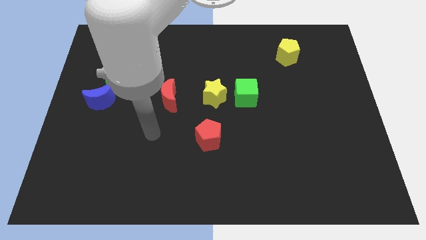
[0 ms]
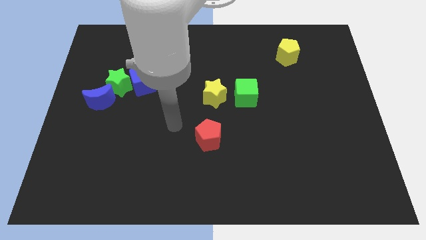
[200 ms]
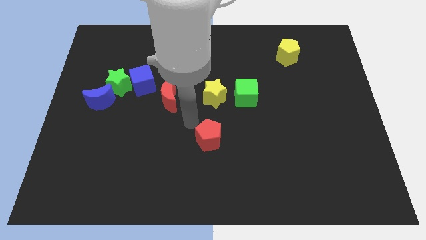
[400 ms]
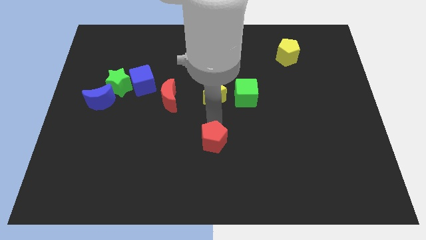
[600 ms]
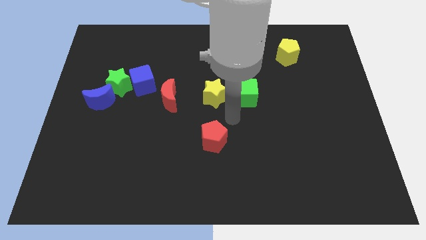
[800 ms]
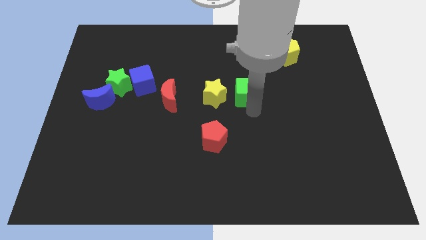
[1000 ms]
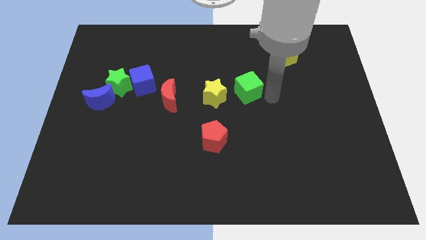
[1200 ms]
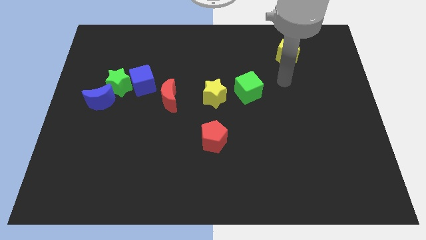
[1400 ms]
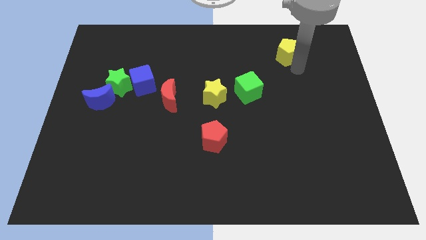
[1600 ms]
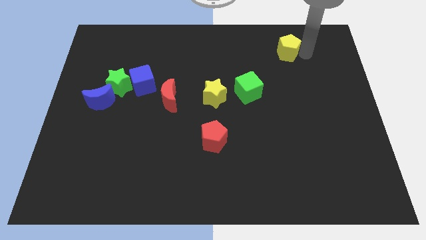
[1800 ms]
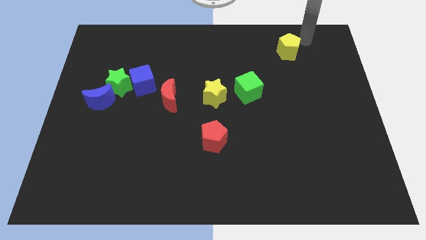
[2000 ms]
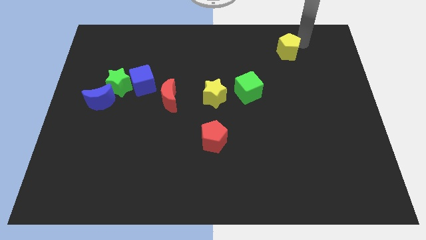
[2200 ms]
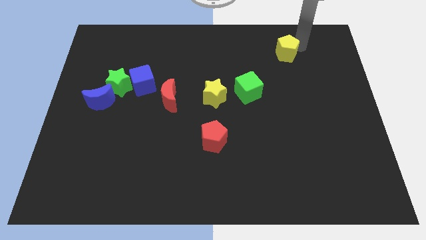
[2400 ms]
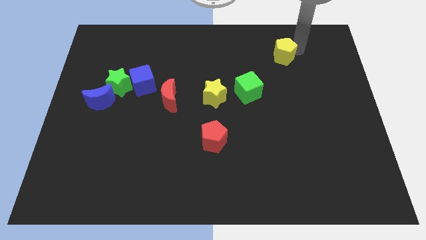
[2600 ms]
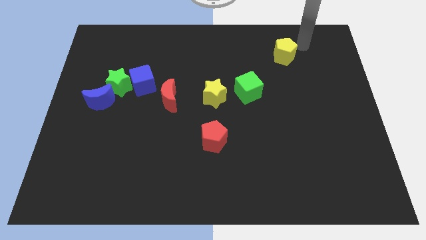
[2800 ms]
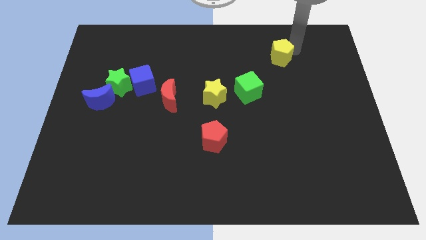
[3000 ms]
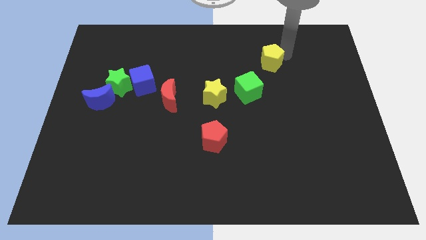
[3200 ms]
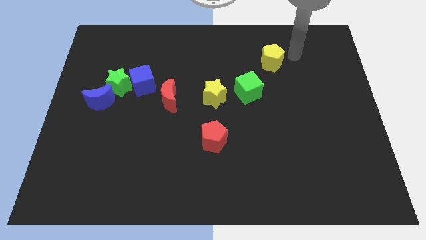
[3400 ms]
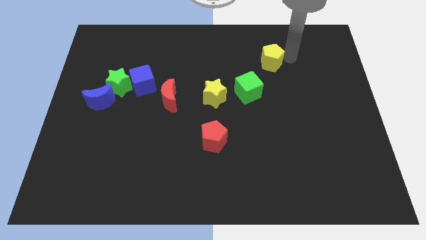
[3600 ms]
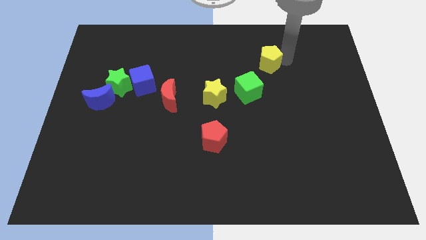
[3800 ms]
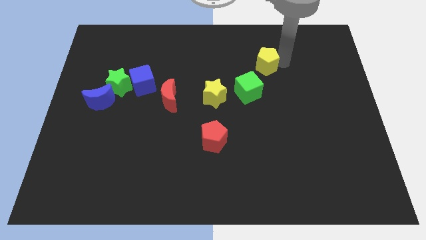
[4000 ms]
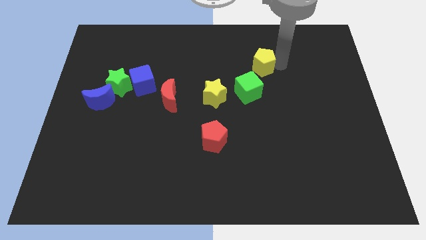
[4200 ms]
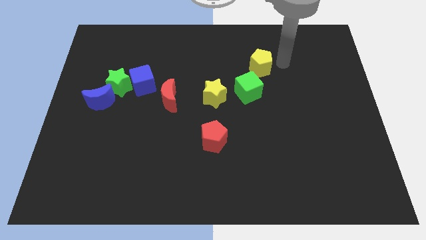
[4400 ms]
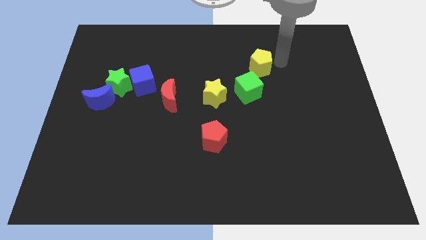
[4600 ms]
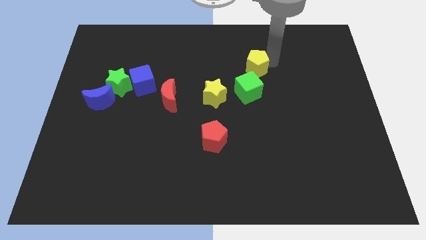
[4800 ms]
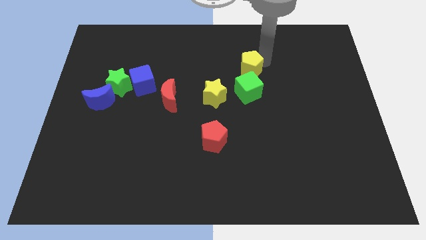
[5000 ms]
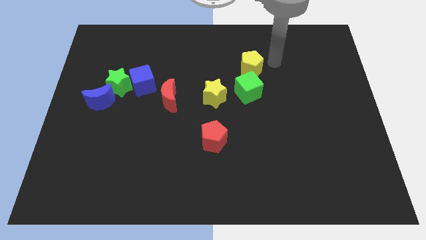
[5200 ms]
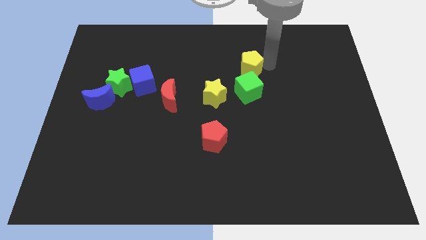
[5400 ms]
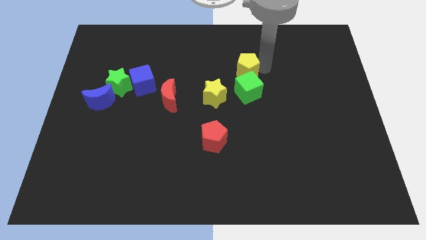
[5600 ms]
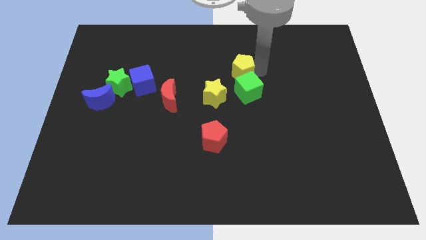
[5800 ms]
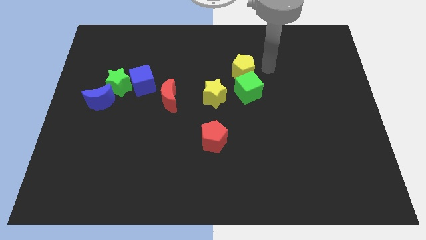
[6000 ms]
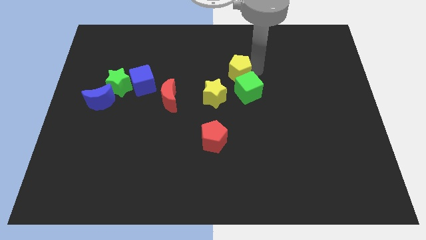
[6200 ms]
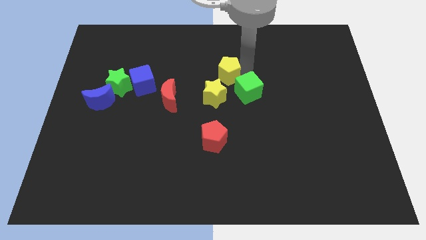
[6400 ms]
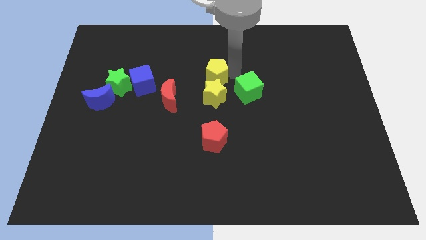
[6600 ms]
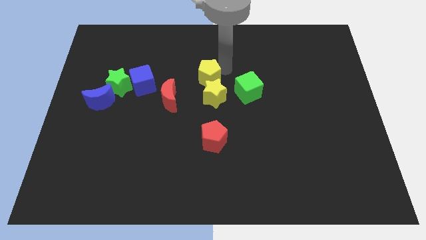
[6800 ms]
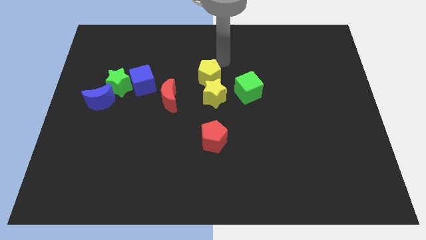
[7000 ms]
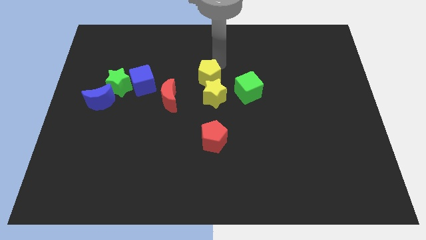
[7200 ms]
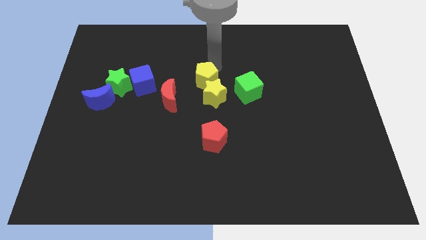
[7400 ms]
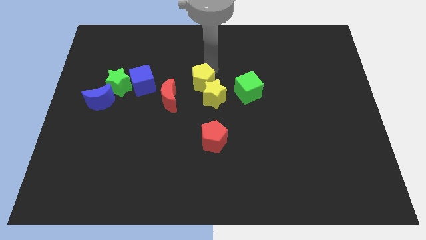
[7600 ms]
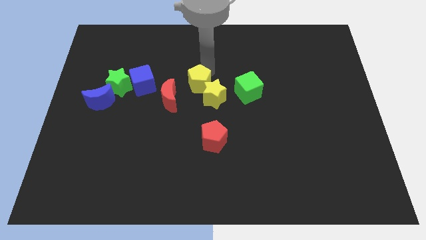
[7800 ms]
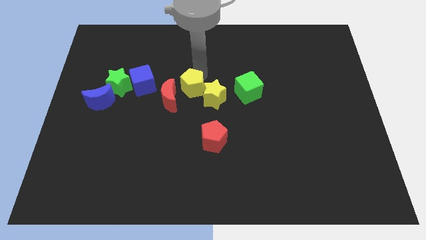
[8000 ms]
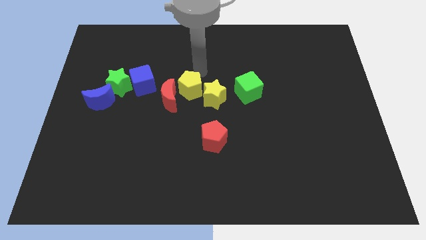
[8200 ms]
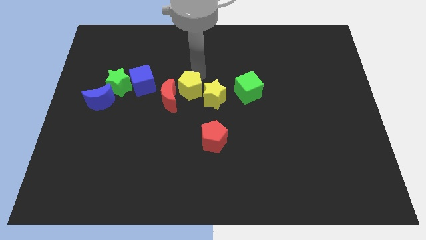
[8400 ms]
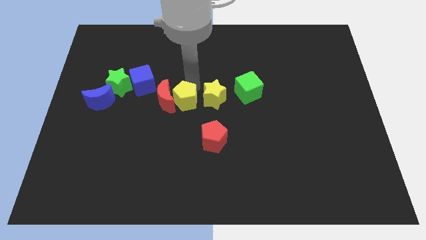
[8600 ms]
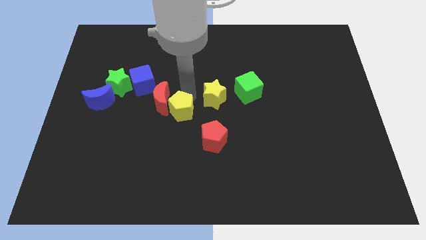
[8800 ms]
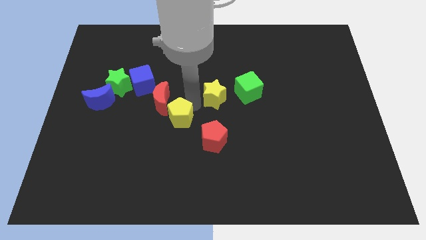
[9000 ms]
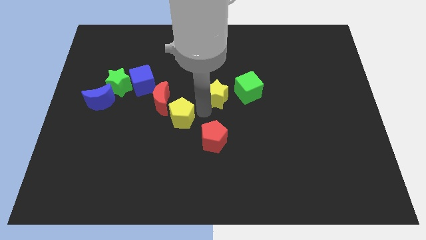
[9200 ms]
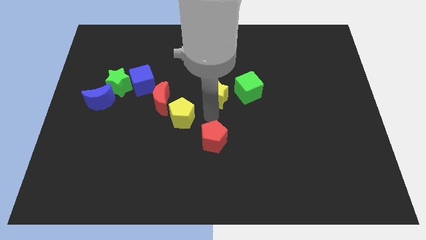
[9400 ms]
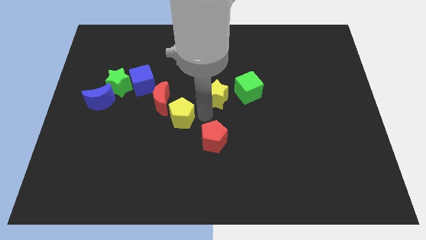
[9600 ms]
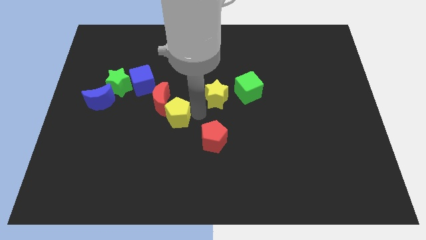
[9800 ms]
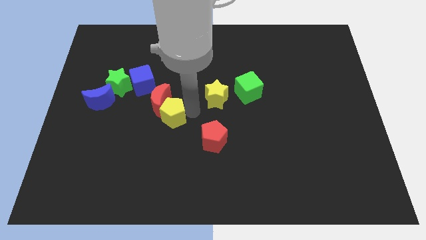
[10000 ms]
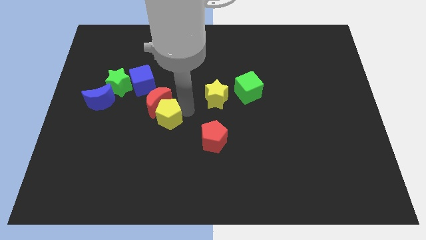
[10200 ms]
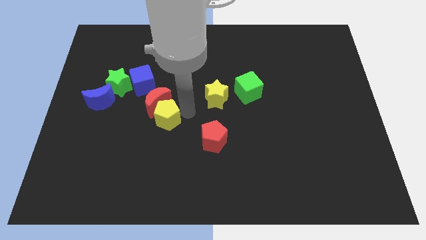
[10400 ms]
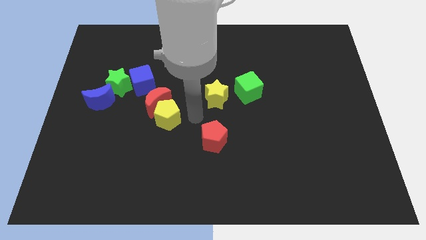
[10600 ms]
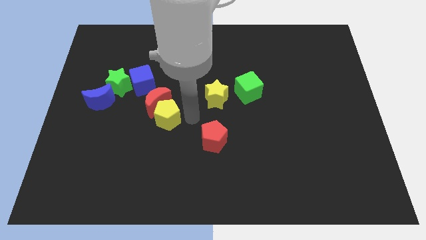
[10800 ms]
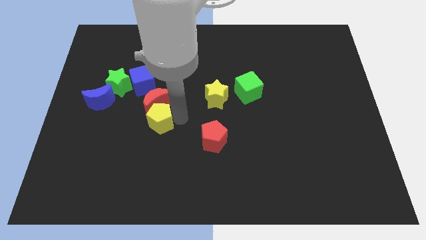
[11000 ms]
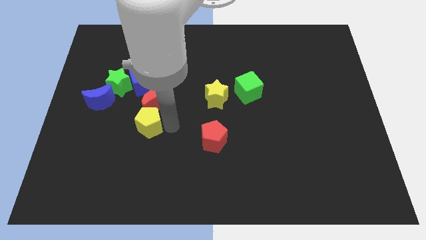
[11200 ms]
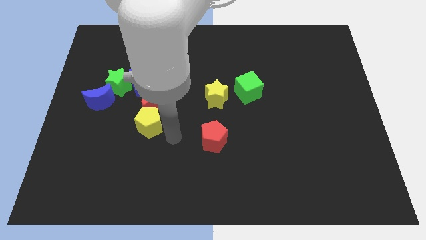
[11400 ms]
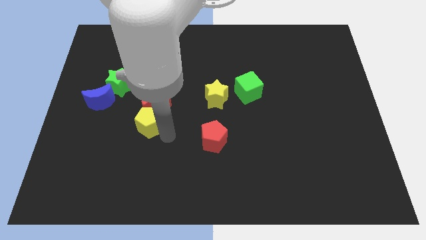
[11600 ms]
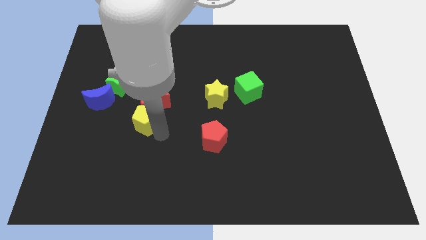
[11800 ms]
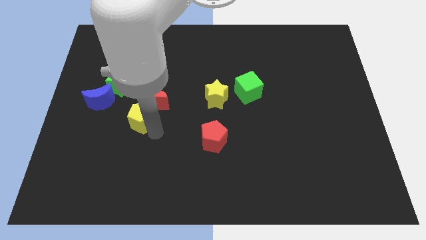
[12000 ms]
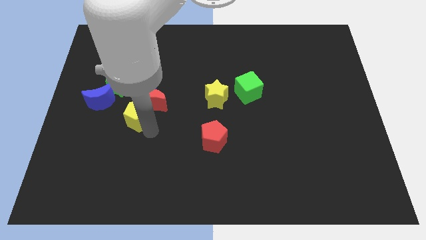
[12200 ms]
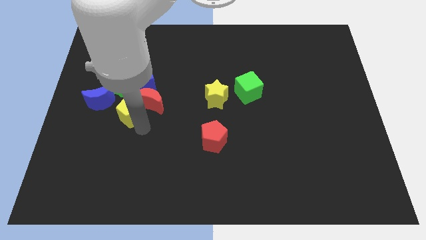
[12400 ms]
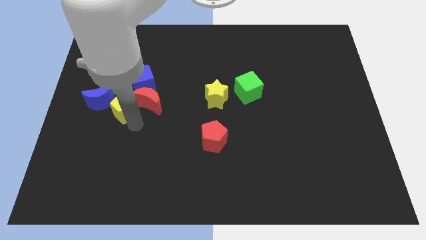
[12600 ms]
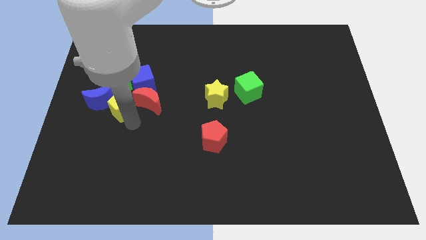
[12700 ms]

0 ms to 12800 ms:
push the yellow pentagon towards the blue moon
